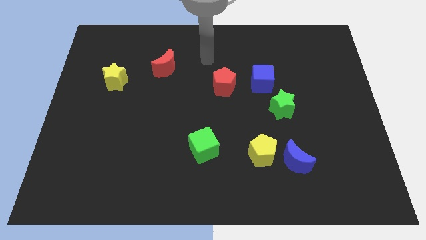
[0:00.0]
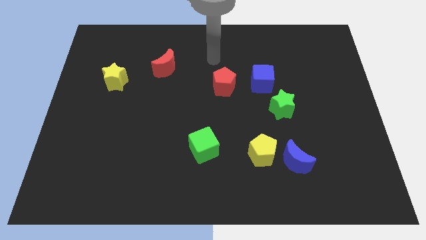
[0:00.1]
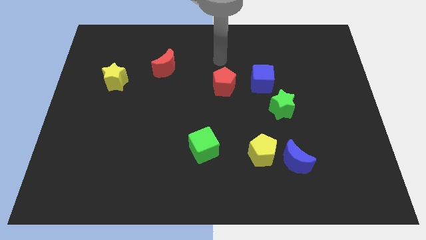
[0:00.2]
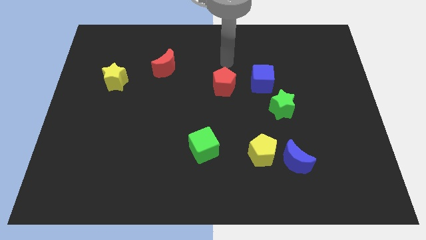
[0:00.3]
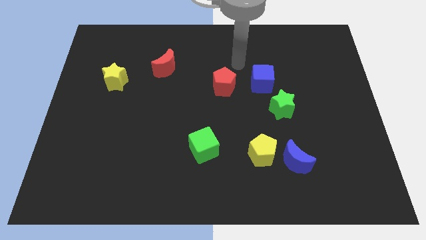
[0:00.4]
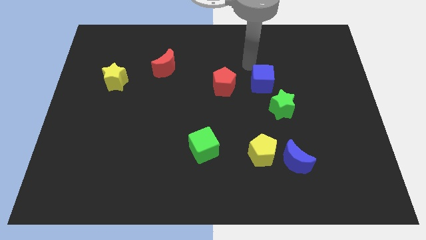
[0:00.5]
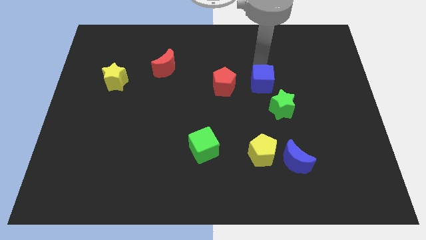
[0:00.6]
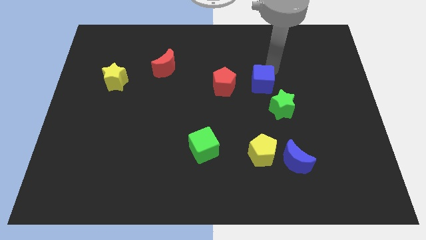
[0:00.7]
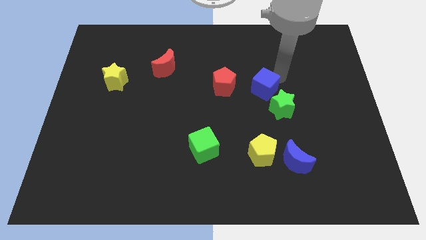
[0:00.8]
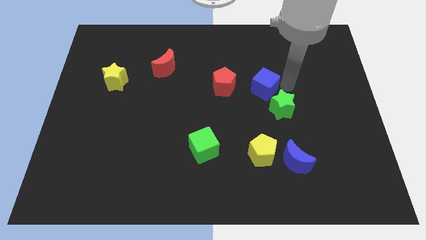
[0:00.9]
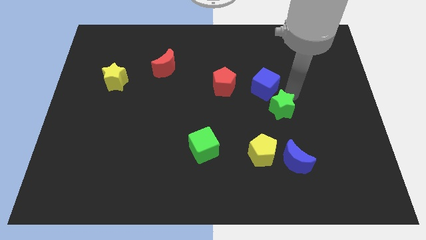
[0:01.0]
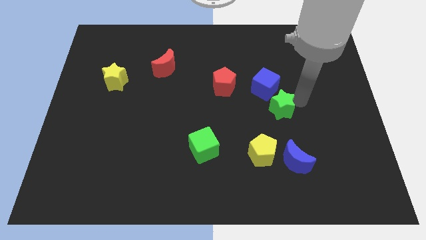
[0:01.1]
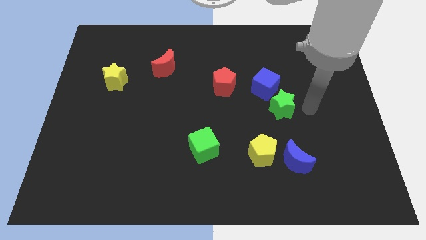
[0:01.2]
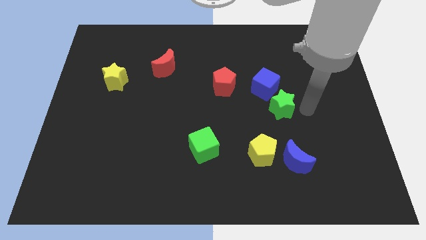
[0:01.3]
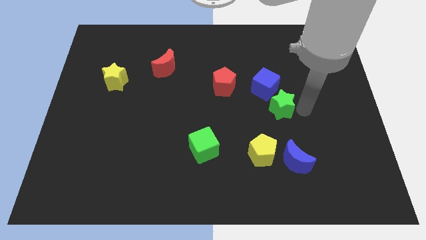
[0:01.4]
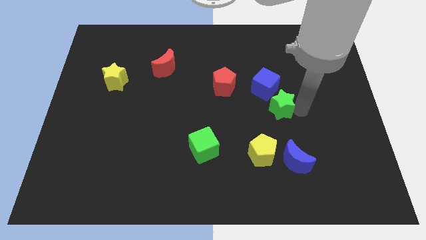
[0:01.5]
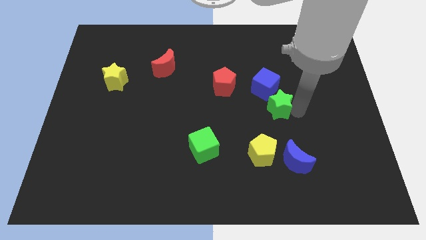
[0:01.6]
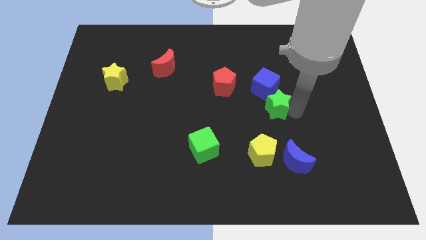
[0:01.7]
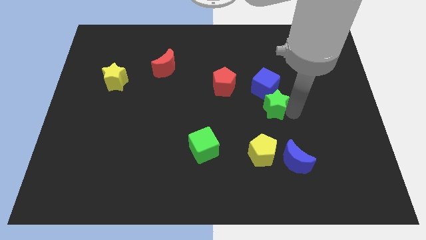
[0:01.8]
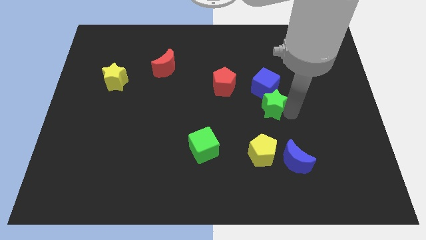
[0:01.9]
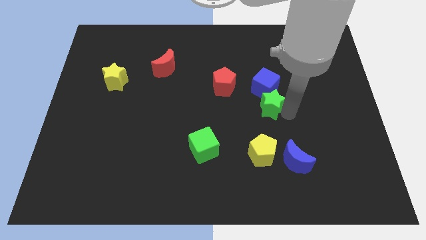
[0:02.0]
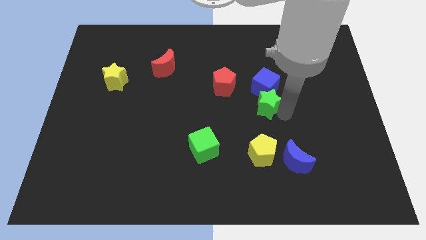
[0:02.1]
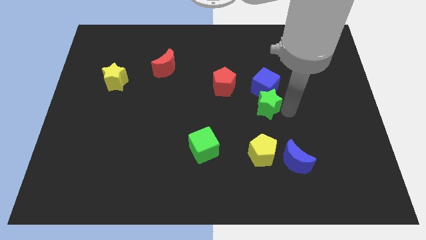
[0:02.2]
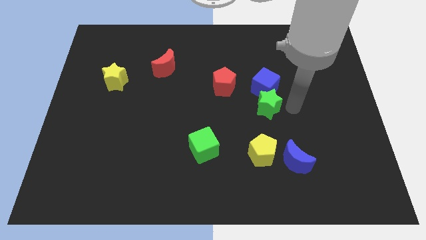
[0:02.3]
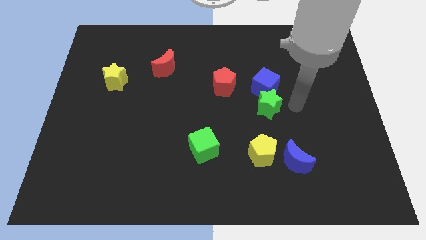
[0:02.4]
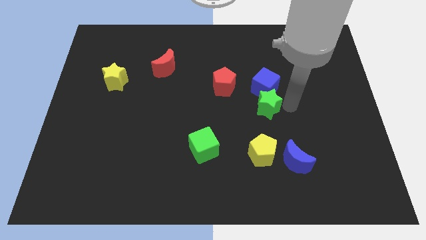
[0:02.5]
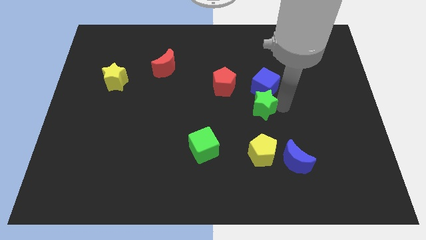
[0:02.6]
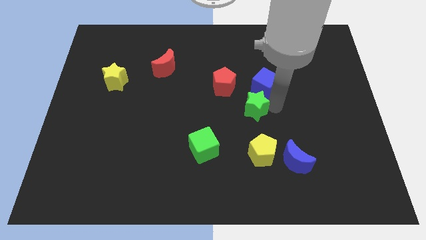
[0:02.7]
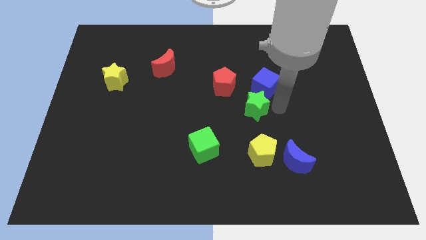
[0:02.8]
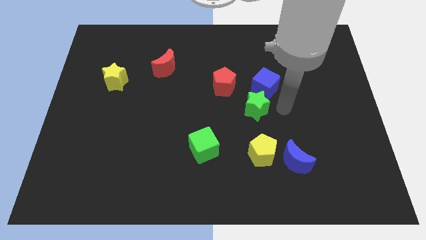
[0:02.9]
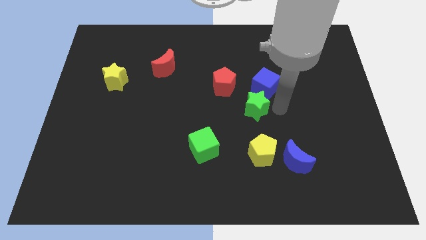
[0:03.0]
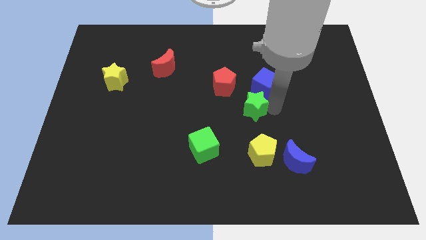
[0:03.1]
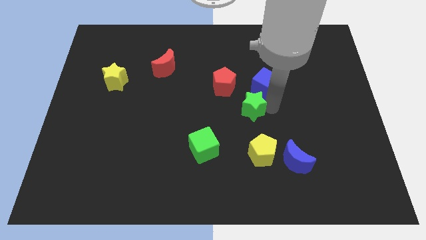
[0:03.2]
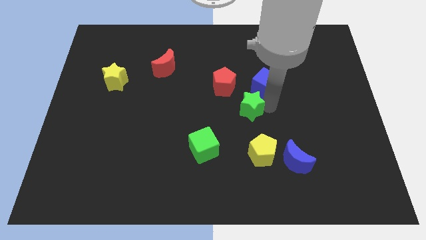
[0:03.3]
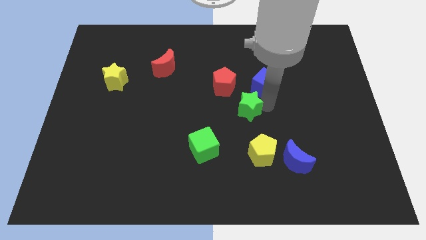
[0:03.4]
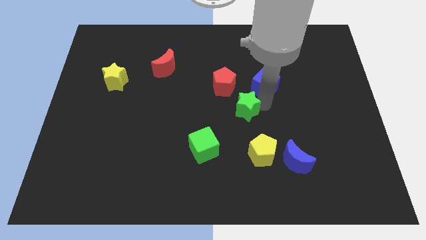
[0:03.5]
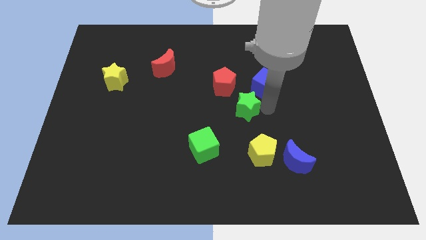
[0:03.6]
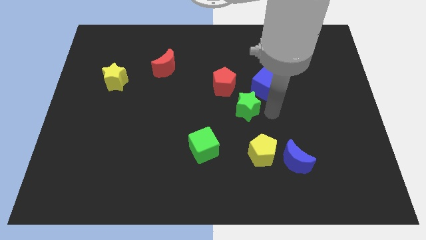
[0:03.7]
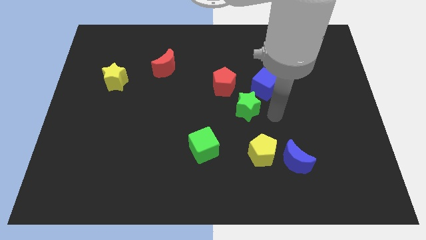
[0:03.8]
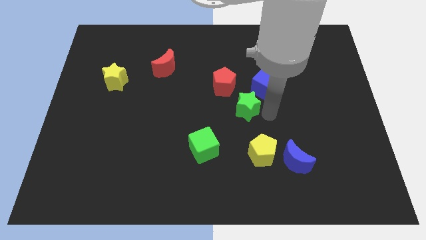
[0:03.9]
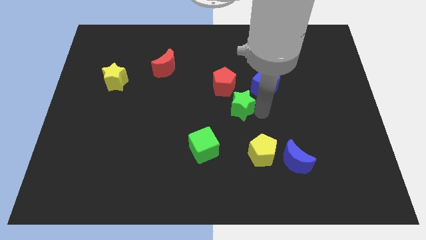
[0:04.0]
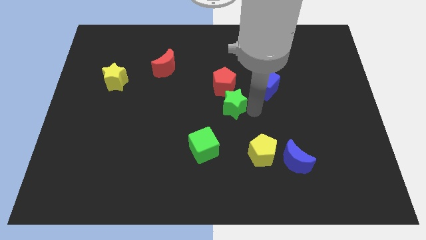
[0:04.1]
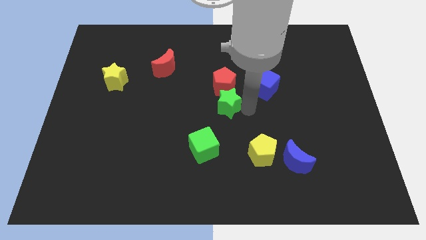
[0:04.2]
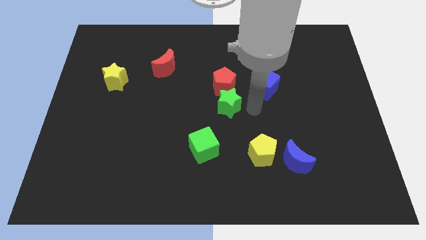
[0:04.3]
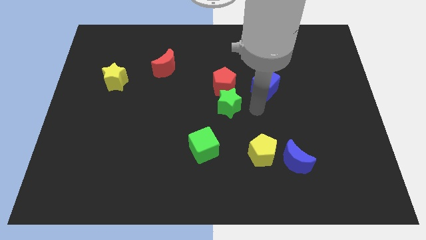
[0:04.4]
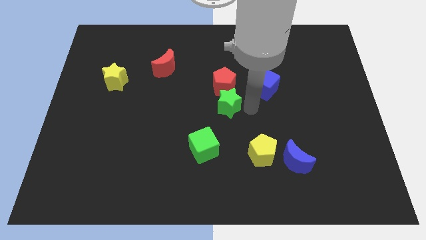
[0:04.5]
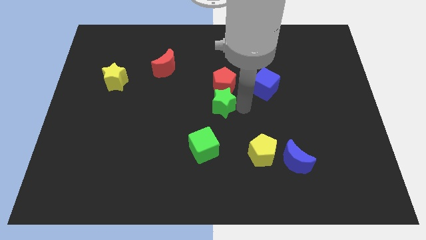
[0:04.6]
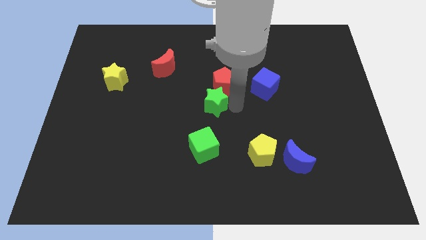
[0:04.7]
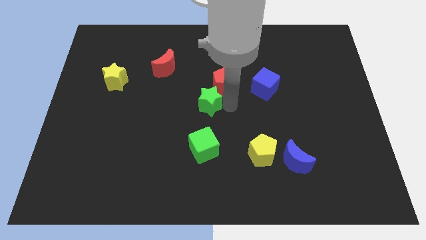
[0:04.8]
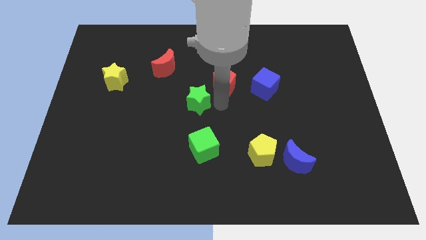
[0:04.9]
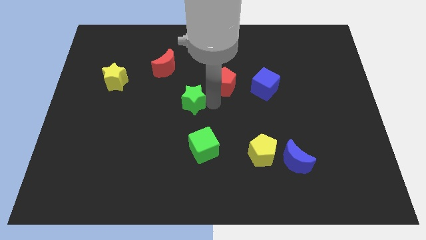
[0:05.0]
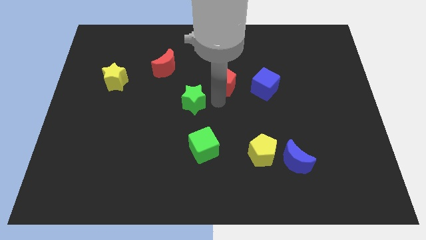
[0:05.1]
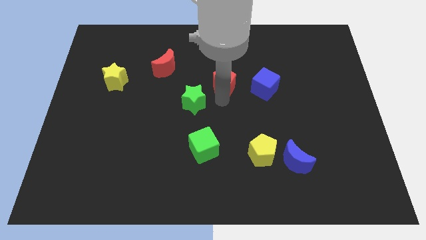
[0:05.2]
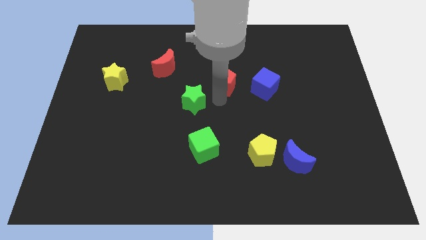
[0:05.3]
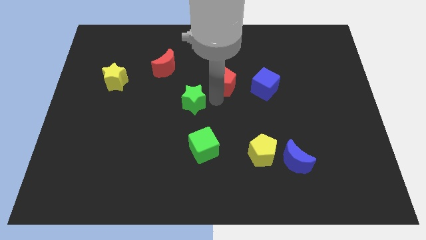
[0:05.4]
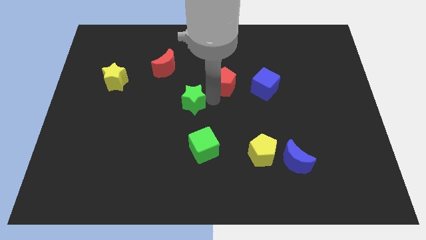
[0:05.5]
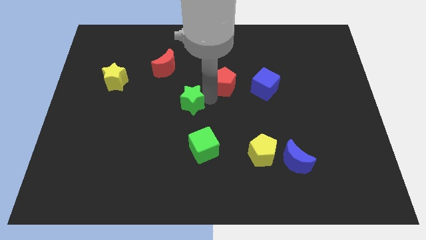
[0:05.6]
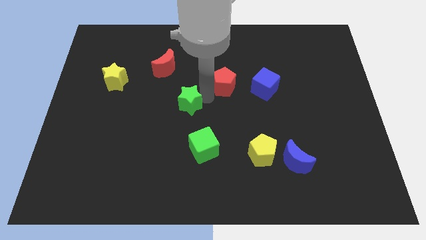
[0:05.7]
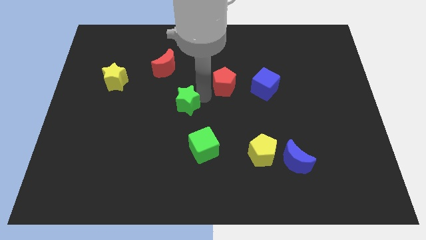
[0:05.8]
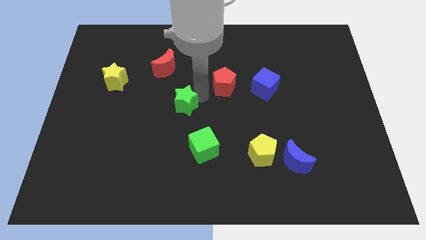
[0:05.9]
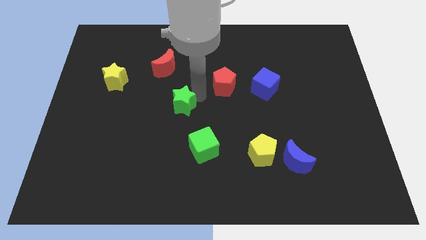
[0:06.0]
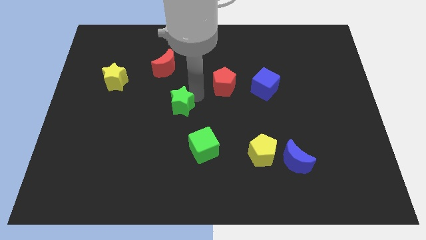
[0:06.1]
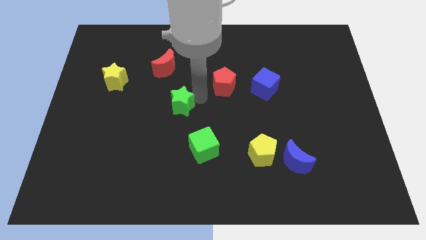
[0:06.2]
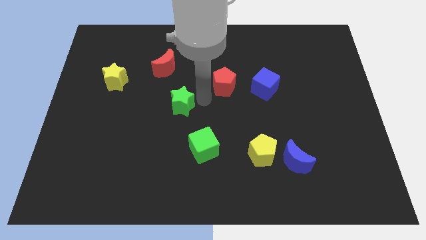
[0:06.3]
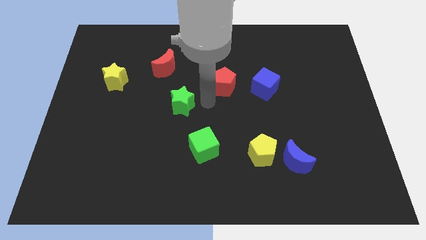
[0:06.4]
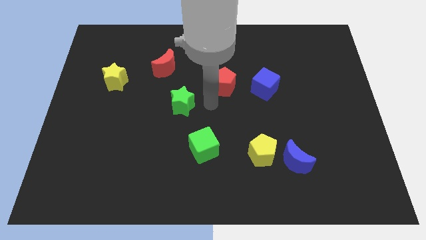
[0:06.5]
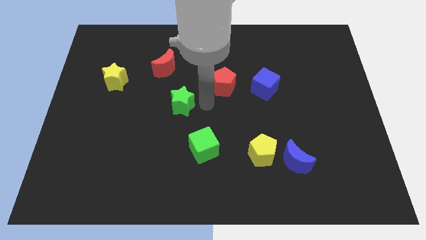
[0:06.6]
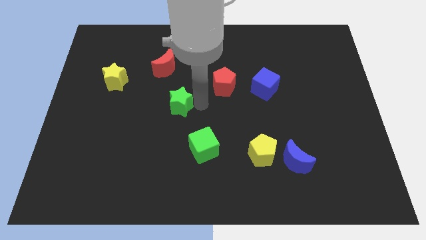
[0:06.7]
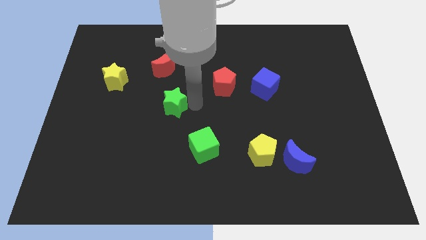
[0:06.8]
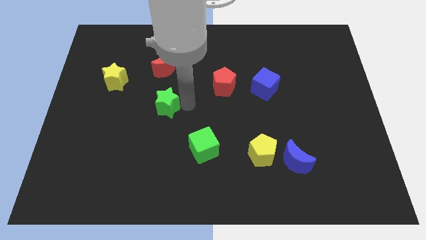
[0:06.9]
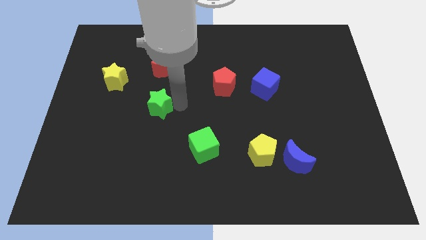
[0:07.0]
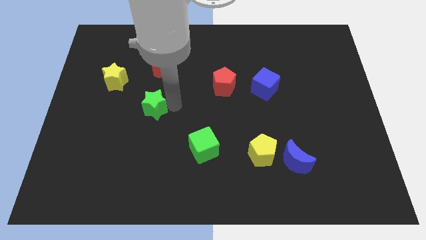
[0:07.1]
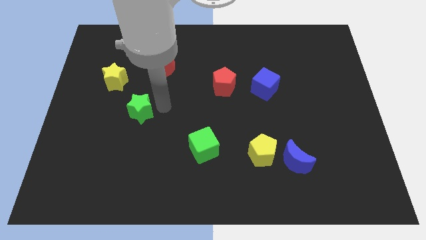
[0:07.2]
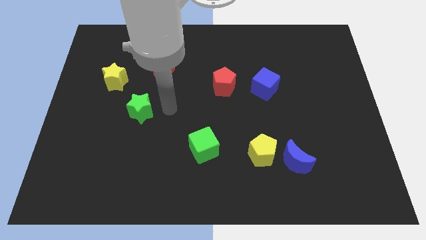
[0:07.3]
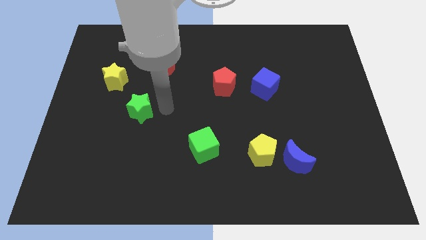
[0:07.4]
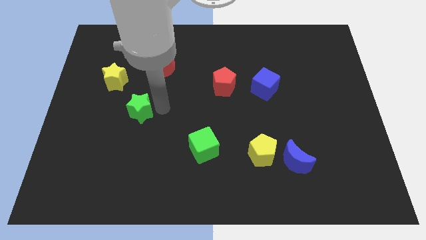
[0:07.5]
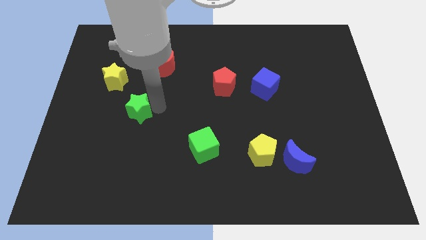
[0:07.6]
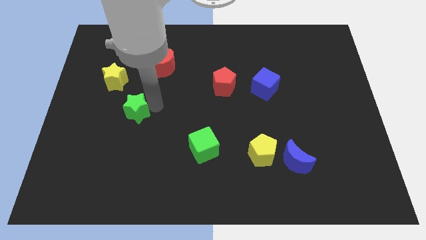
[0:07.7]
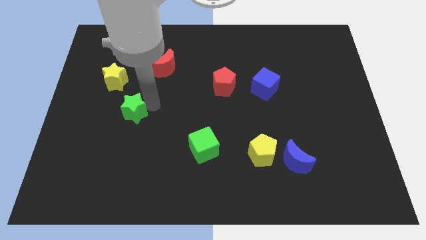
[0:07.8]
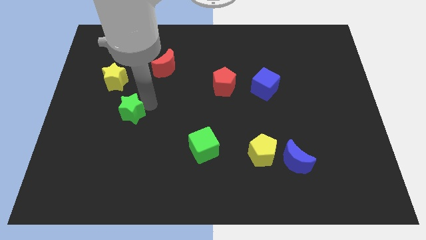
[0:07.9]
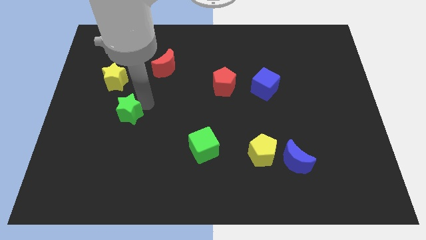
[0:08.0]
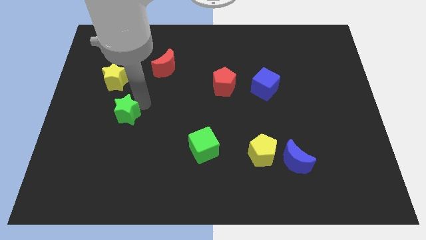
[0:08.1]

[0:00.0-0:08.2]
push the green star to the bottom side of the yellow star
